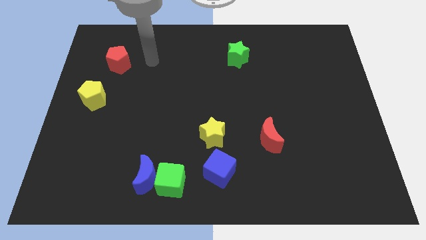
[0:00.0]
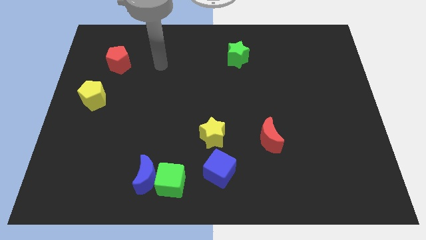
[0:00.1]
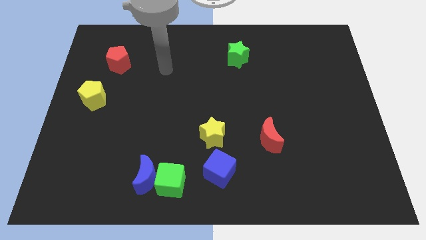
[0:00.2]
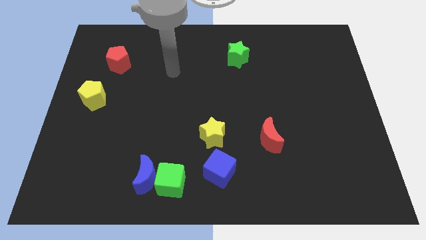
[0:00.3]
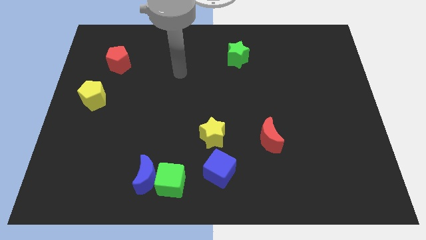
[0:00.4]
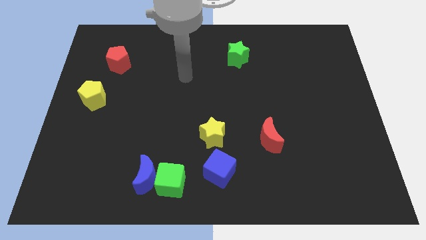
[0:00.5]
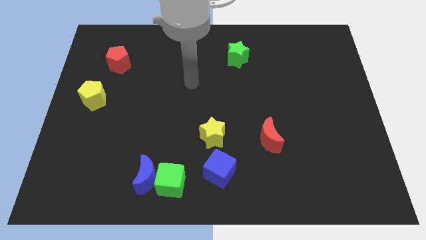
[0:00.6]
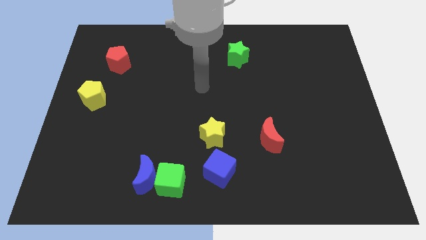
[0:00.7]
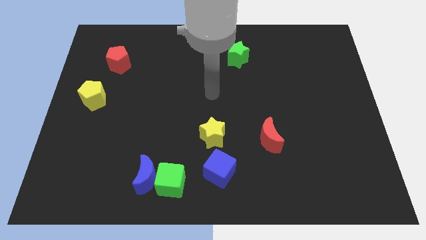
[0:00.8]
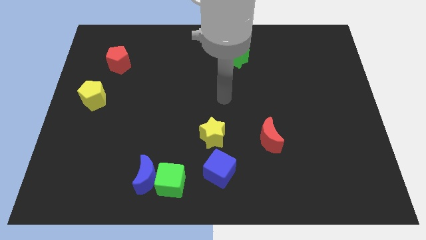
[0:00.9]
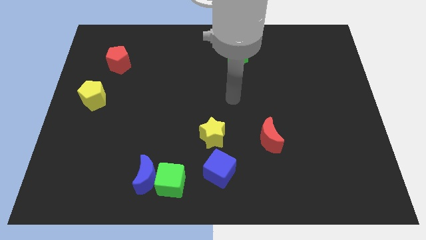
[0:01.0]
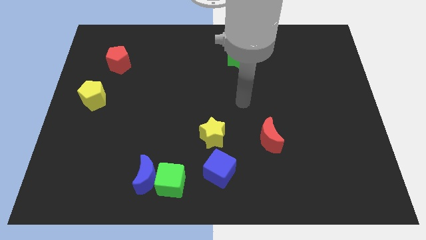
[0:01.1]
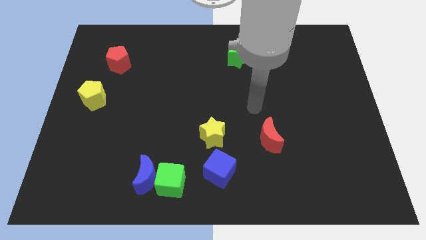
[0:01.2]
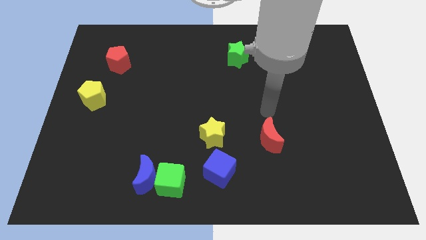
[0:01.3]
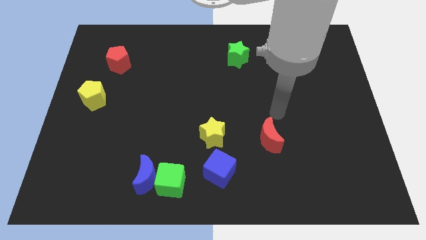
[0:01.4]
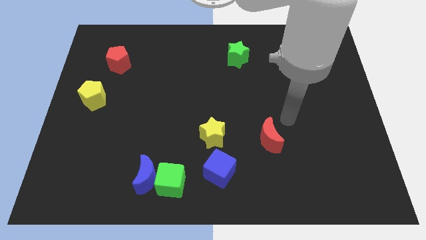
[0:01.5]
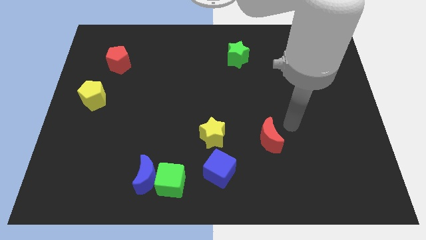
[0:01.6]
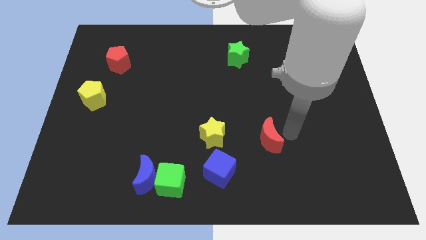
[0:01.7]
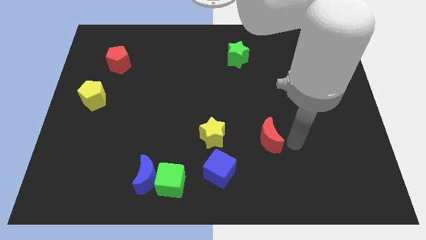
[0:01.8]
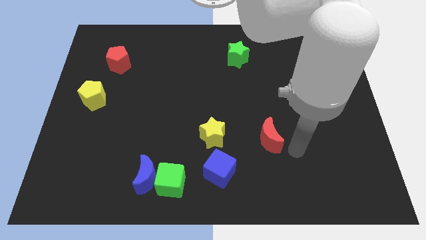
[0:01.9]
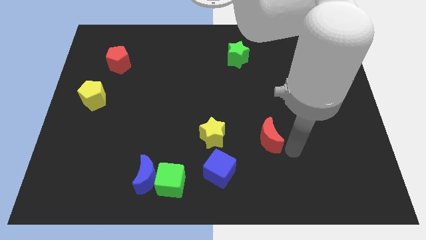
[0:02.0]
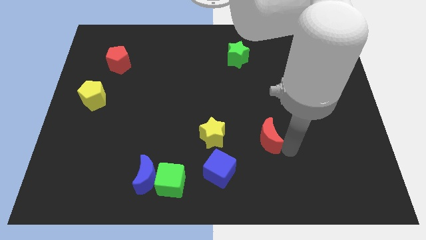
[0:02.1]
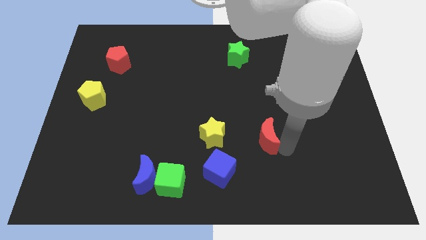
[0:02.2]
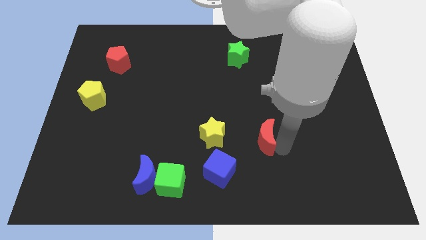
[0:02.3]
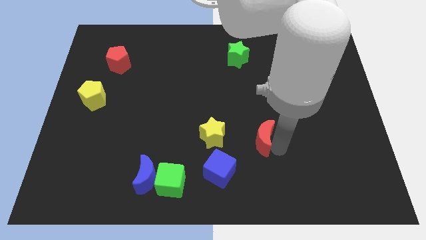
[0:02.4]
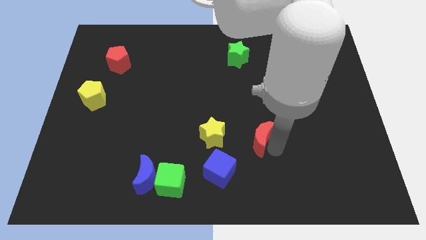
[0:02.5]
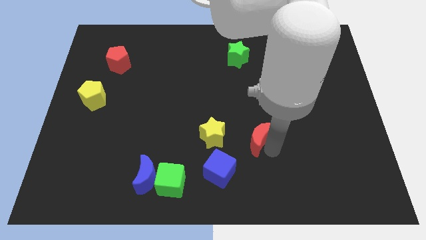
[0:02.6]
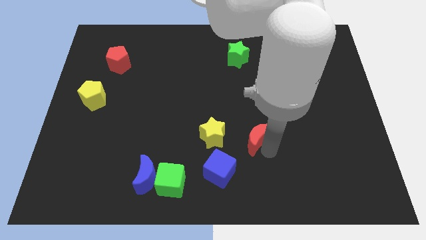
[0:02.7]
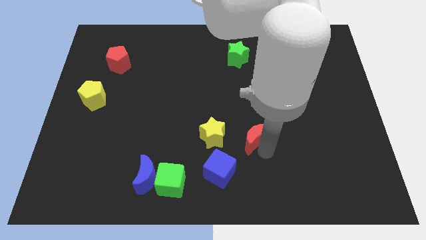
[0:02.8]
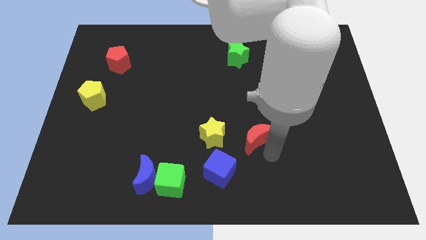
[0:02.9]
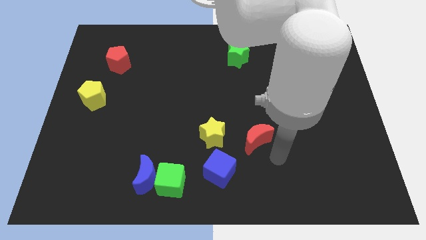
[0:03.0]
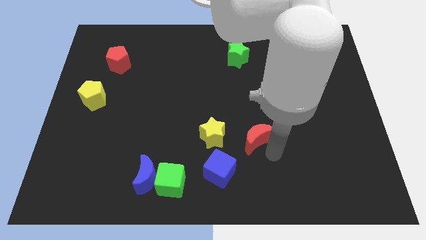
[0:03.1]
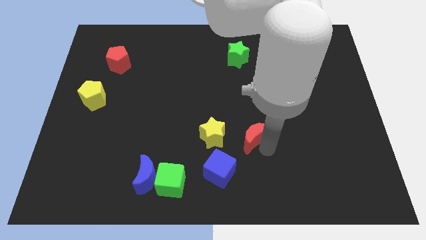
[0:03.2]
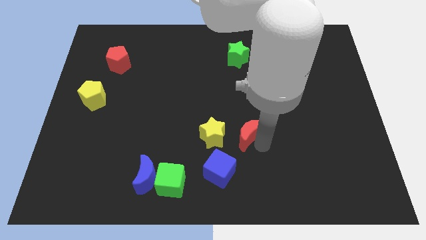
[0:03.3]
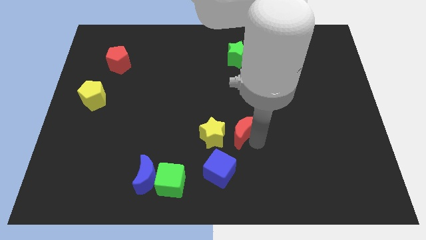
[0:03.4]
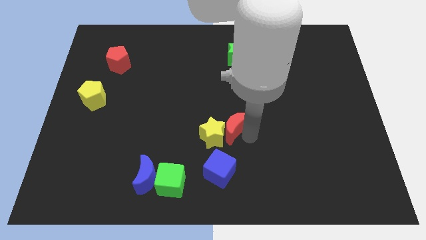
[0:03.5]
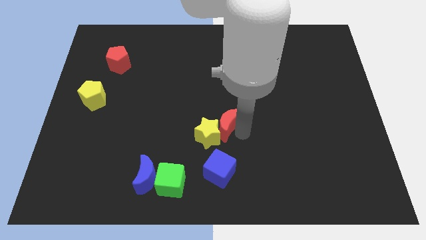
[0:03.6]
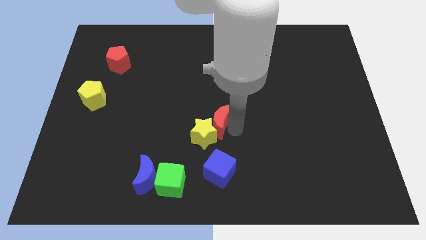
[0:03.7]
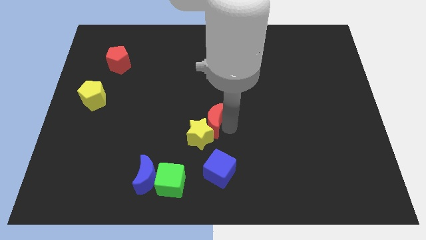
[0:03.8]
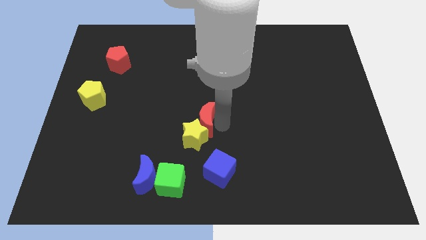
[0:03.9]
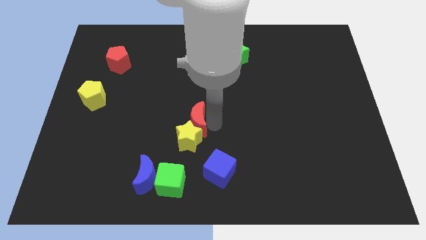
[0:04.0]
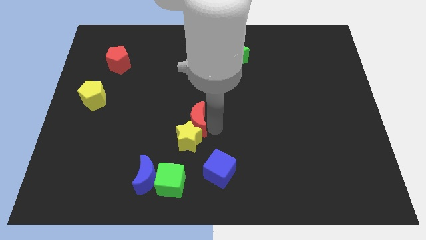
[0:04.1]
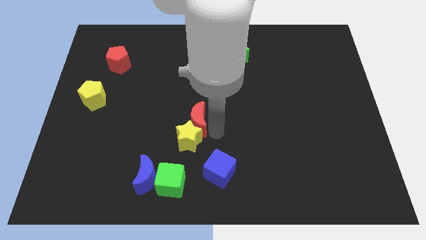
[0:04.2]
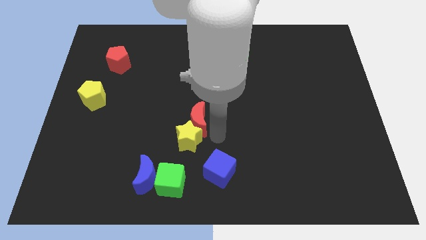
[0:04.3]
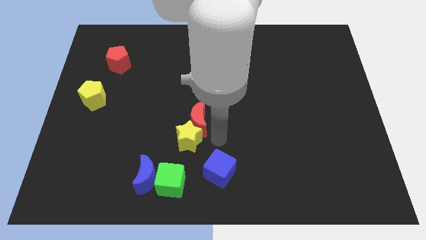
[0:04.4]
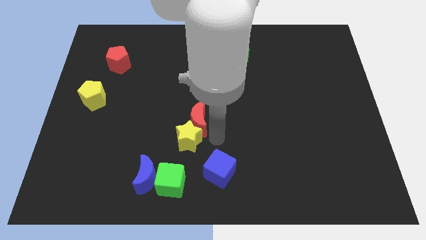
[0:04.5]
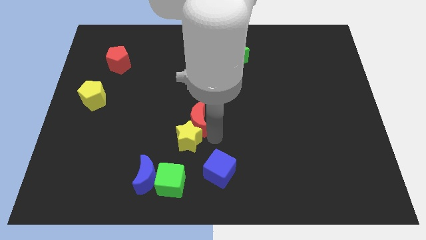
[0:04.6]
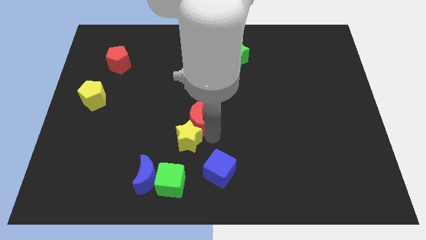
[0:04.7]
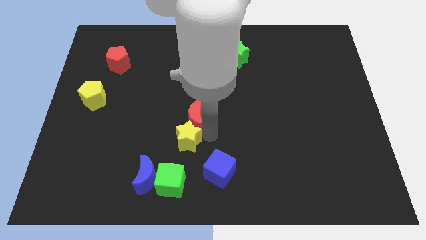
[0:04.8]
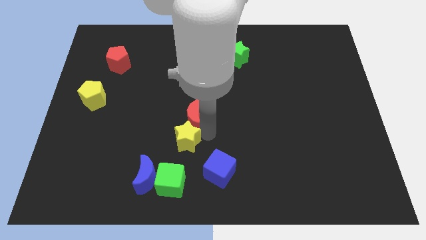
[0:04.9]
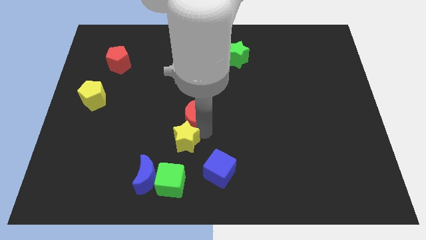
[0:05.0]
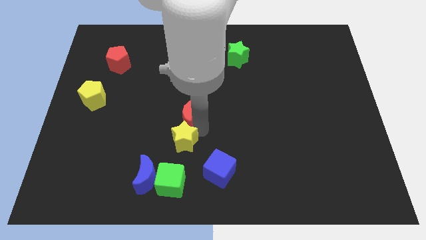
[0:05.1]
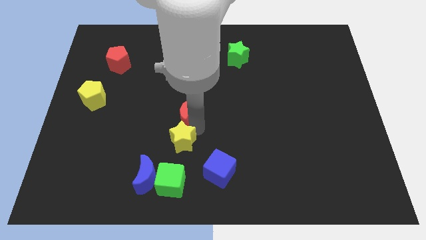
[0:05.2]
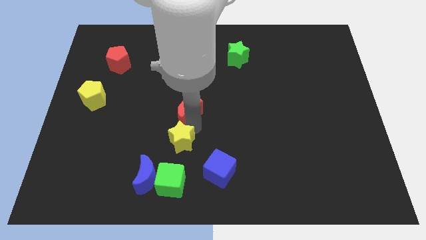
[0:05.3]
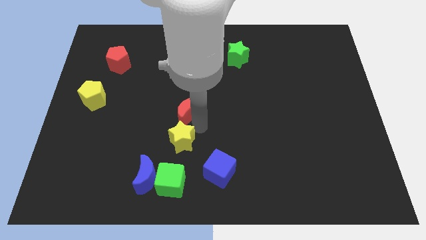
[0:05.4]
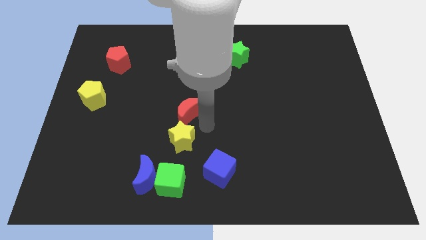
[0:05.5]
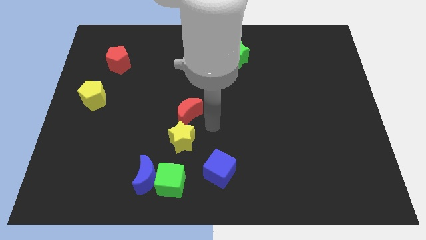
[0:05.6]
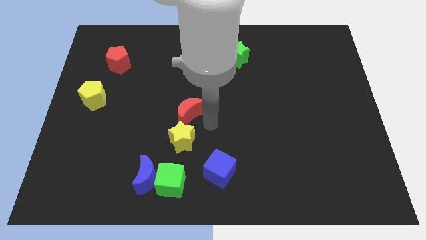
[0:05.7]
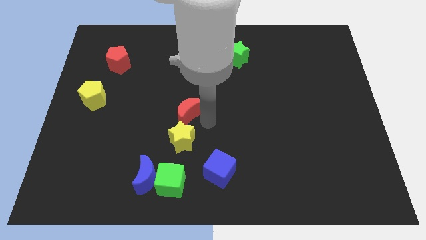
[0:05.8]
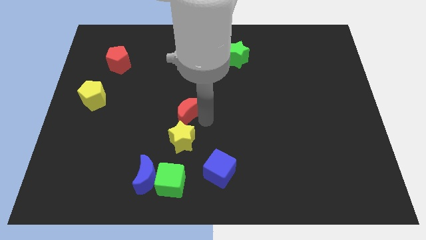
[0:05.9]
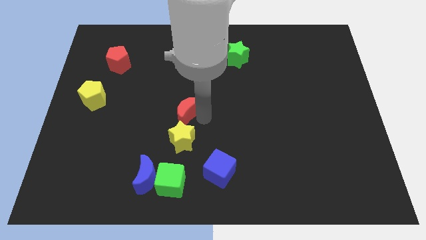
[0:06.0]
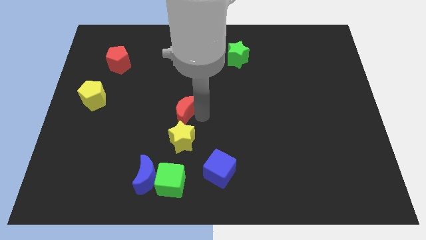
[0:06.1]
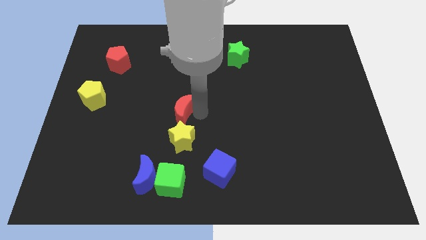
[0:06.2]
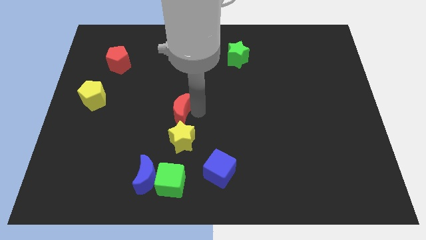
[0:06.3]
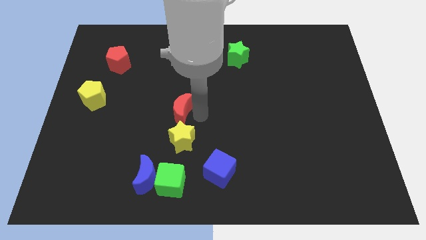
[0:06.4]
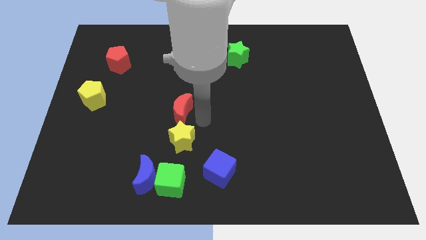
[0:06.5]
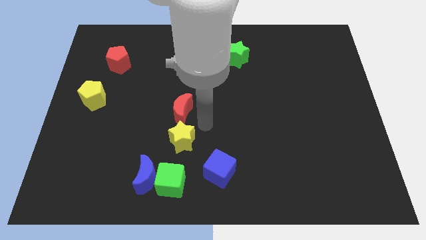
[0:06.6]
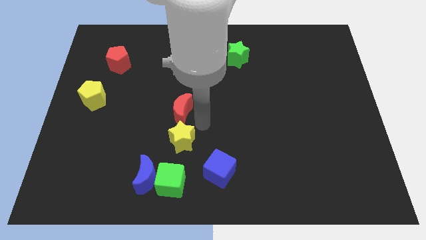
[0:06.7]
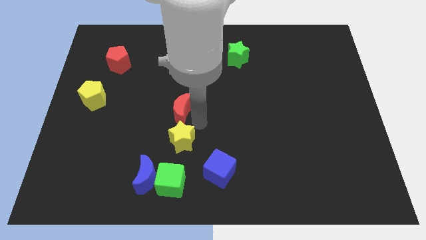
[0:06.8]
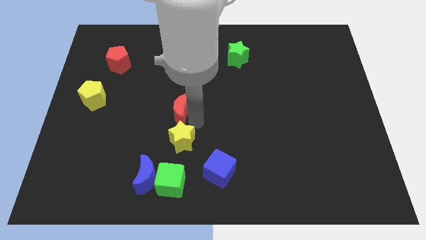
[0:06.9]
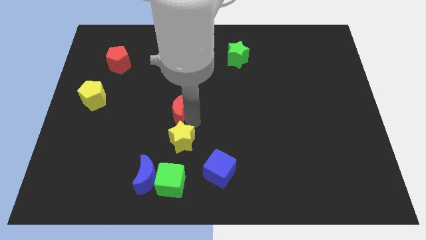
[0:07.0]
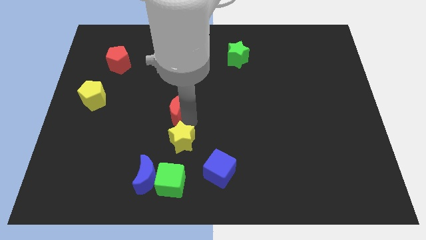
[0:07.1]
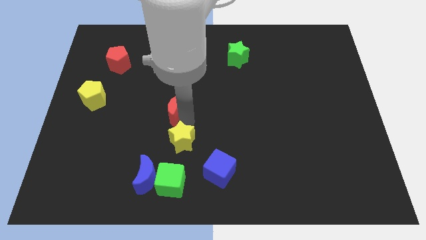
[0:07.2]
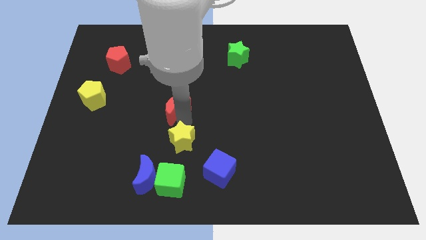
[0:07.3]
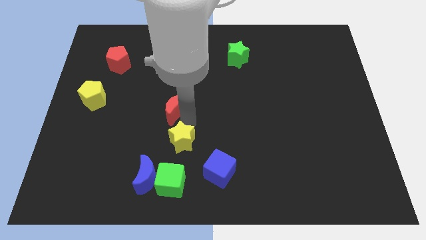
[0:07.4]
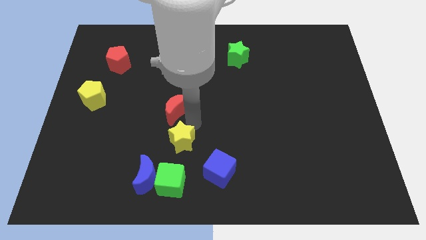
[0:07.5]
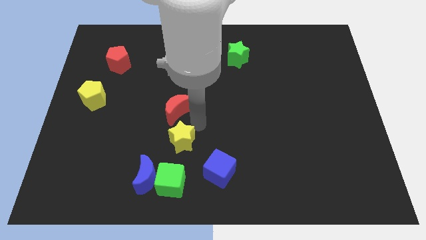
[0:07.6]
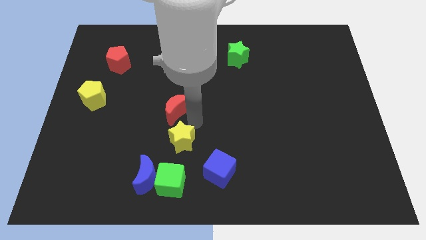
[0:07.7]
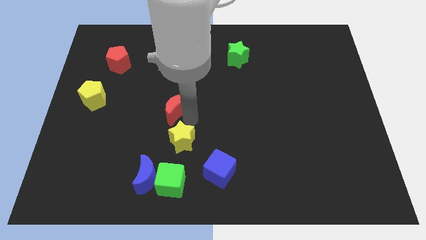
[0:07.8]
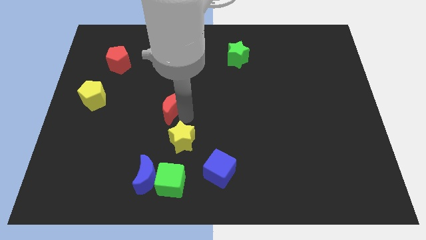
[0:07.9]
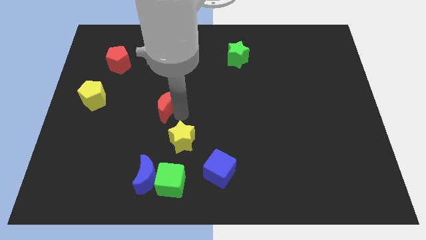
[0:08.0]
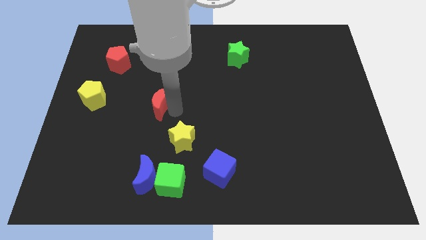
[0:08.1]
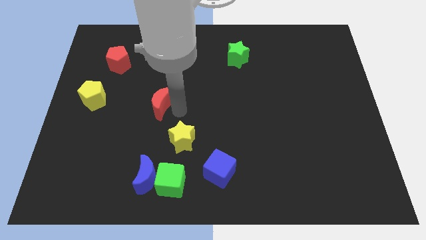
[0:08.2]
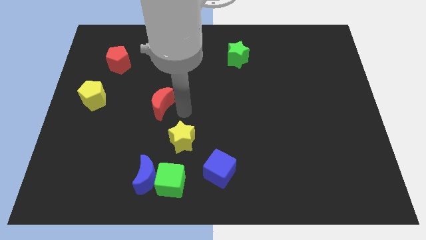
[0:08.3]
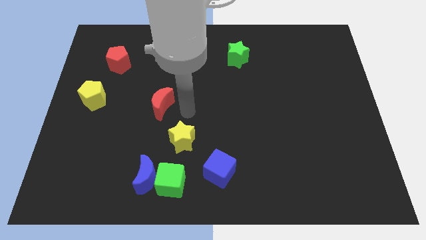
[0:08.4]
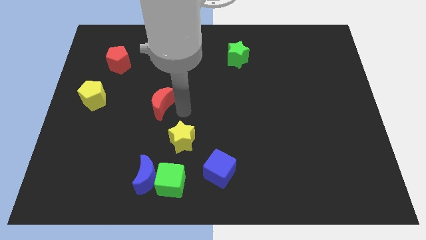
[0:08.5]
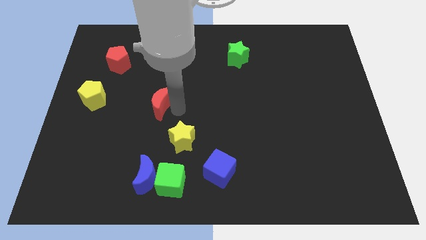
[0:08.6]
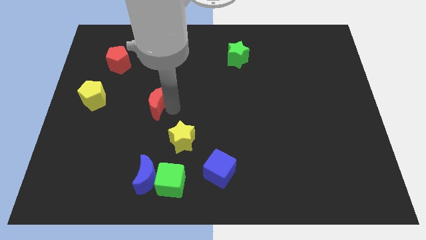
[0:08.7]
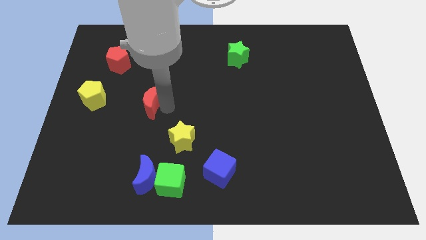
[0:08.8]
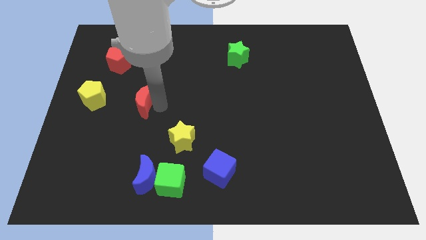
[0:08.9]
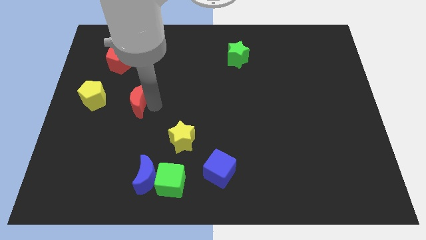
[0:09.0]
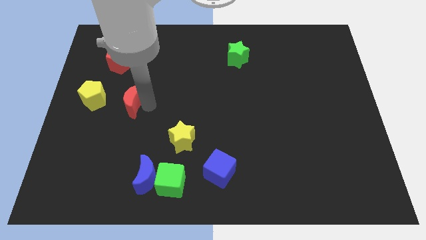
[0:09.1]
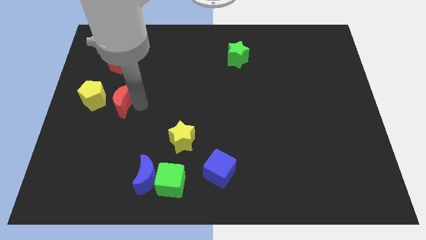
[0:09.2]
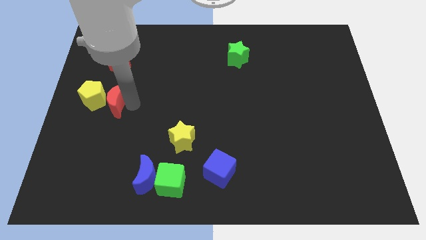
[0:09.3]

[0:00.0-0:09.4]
move the red moon to the yellow pentagon
